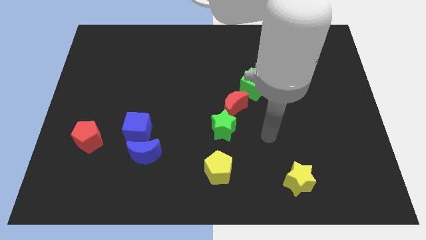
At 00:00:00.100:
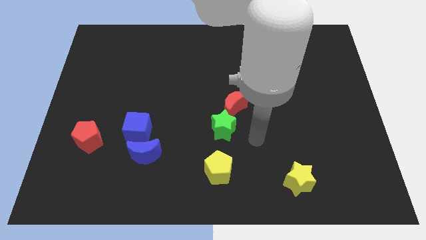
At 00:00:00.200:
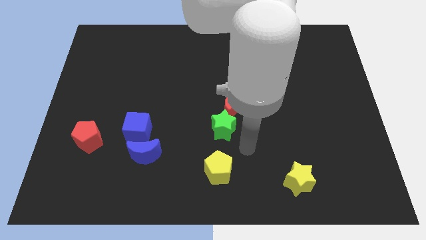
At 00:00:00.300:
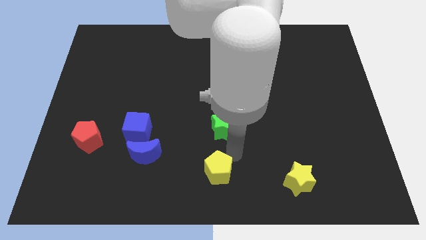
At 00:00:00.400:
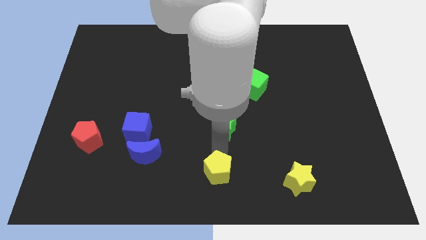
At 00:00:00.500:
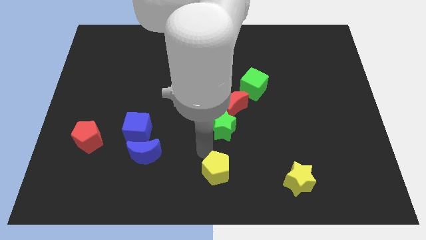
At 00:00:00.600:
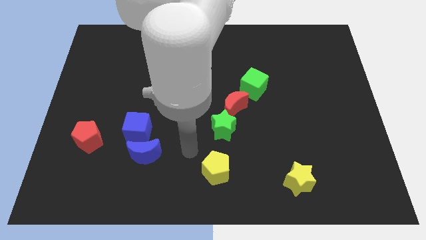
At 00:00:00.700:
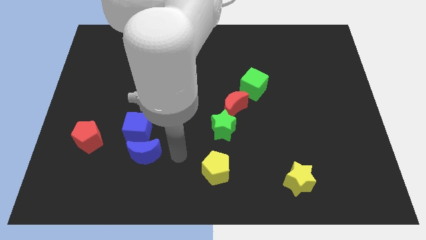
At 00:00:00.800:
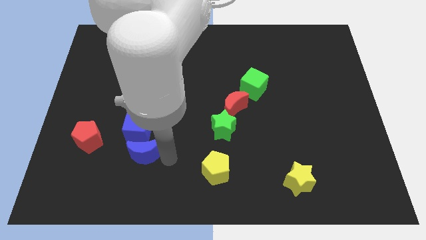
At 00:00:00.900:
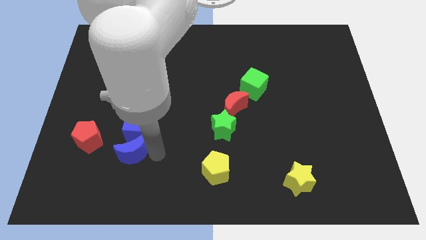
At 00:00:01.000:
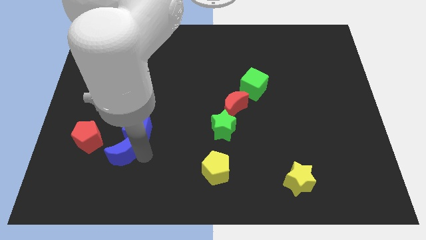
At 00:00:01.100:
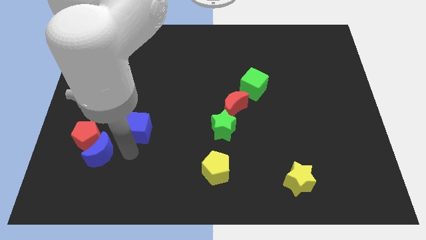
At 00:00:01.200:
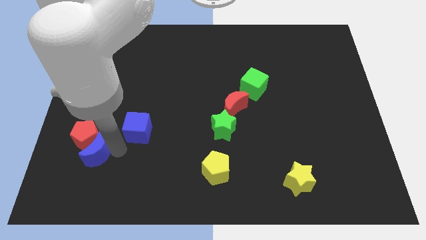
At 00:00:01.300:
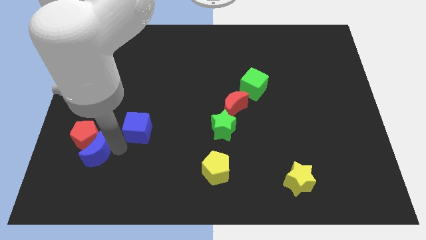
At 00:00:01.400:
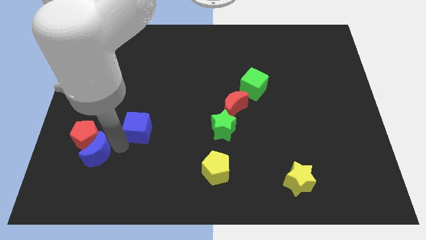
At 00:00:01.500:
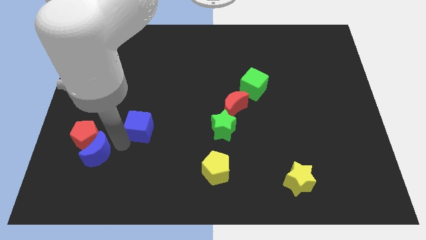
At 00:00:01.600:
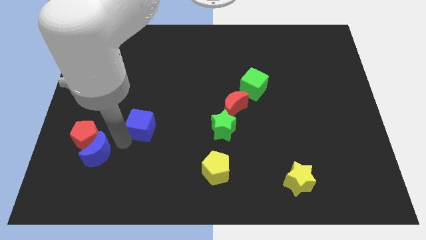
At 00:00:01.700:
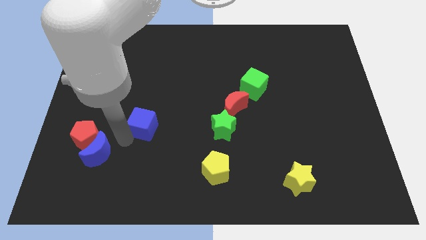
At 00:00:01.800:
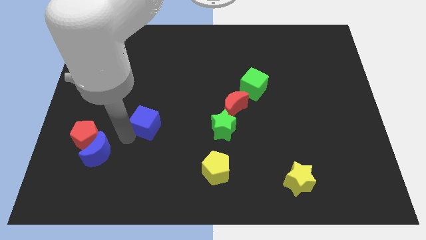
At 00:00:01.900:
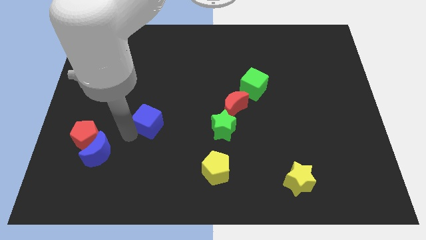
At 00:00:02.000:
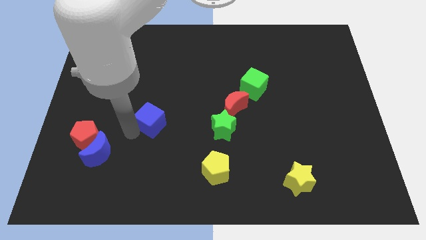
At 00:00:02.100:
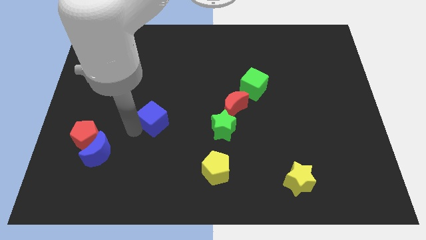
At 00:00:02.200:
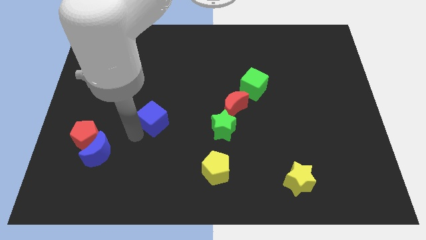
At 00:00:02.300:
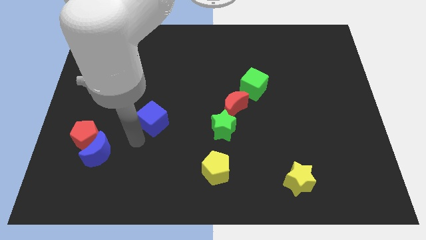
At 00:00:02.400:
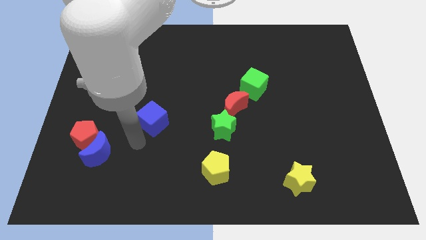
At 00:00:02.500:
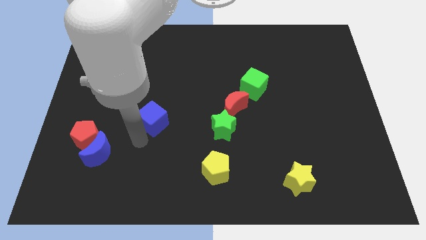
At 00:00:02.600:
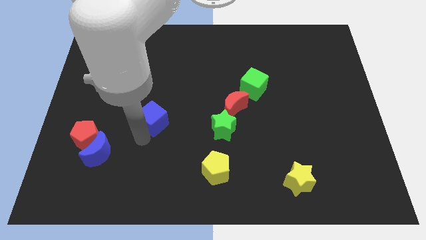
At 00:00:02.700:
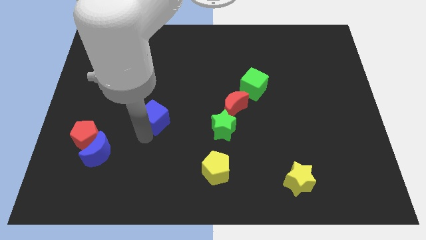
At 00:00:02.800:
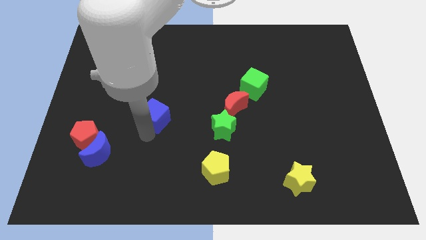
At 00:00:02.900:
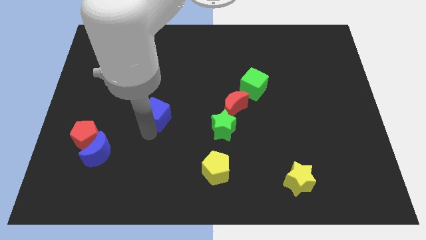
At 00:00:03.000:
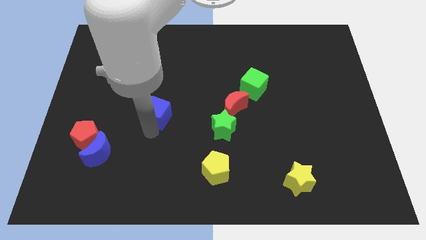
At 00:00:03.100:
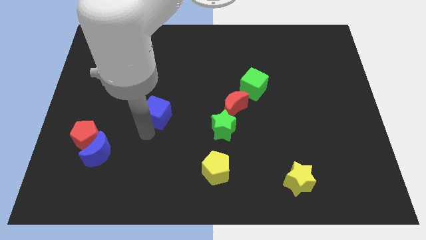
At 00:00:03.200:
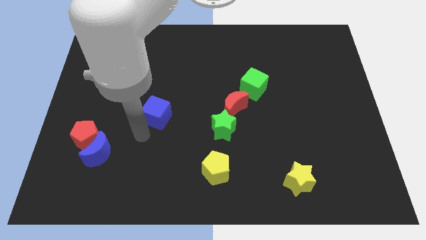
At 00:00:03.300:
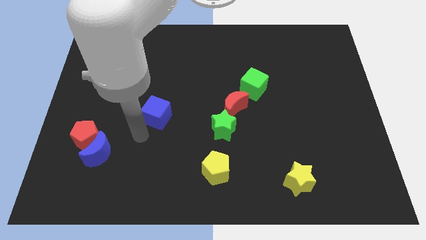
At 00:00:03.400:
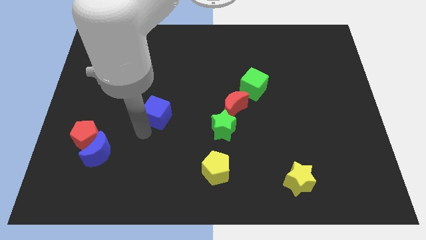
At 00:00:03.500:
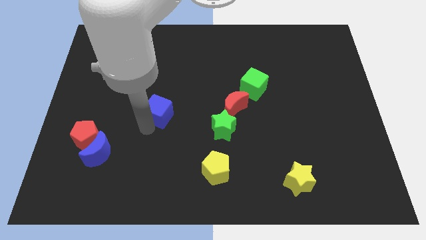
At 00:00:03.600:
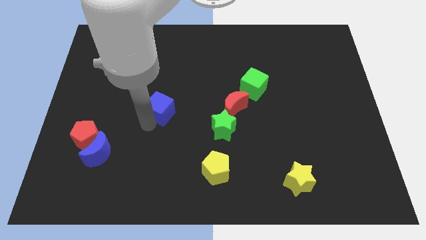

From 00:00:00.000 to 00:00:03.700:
slide the blue cube upwards and to the right diagonally slightly

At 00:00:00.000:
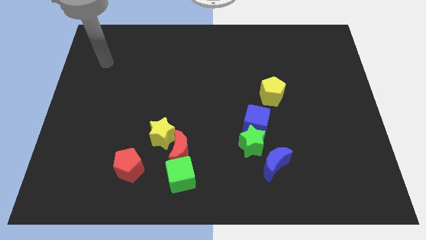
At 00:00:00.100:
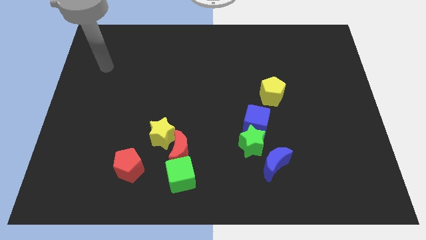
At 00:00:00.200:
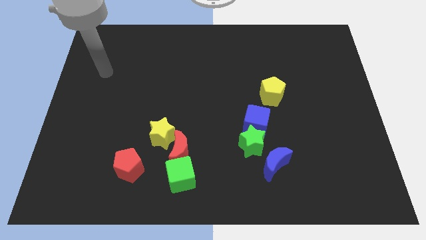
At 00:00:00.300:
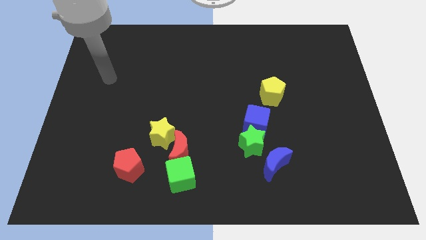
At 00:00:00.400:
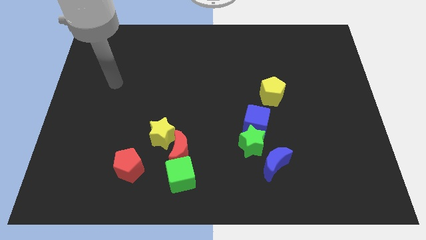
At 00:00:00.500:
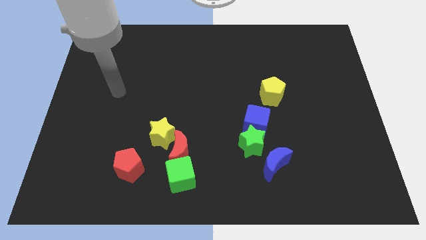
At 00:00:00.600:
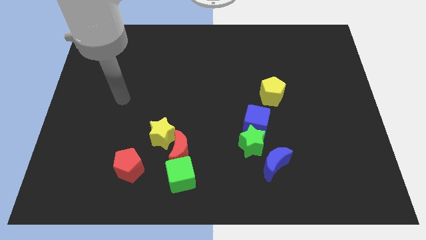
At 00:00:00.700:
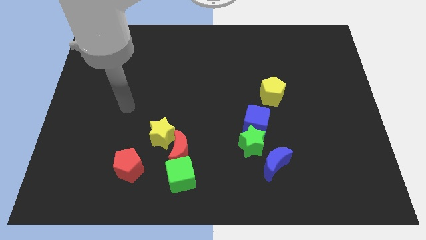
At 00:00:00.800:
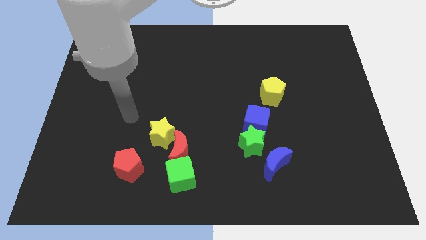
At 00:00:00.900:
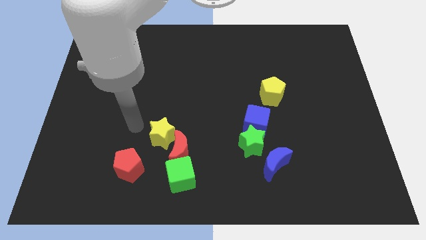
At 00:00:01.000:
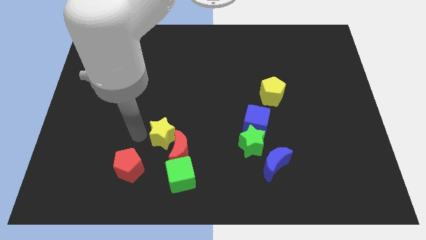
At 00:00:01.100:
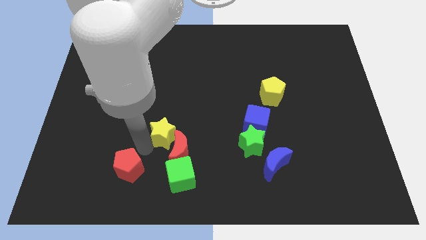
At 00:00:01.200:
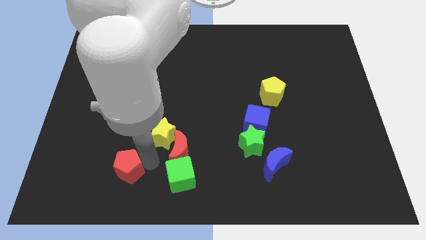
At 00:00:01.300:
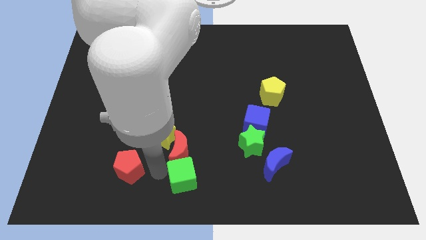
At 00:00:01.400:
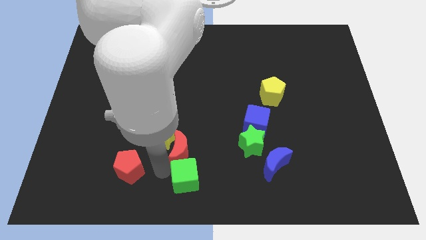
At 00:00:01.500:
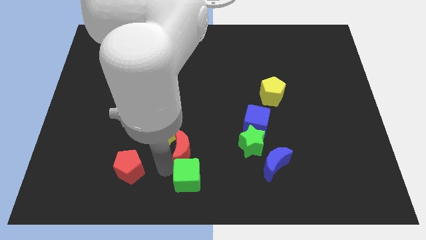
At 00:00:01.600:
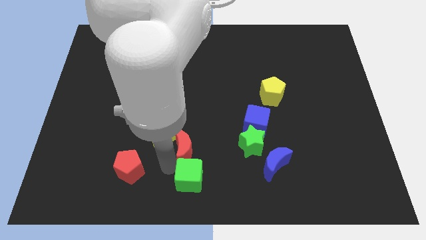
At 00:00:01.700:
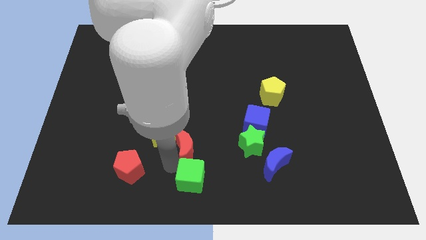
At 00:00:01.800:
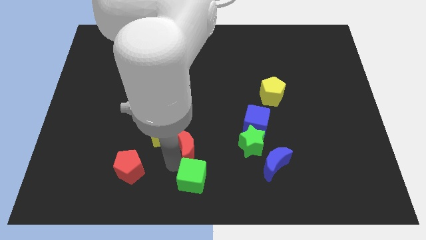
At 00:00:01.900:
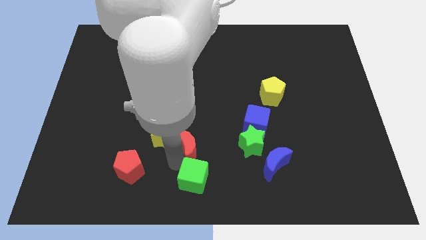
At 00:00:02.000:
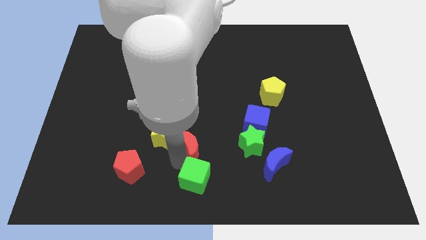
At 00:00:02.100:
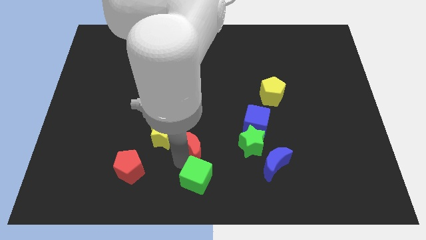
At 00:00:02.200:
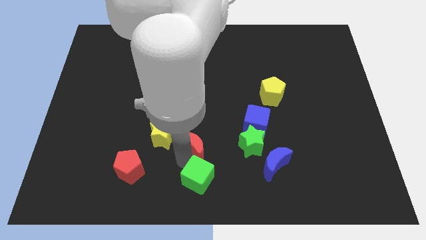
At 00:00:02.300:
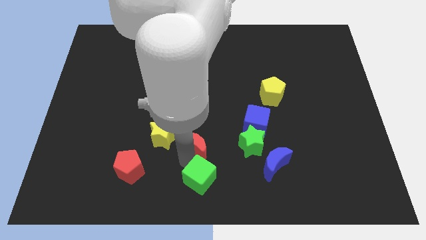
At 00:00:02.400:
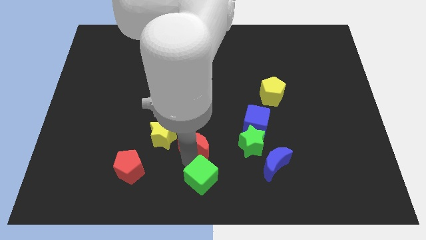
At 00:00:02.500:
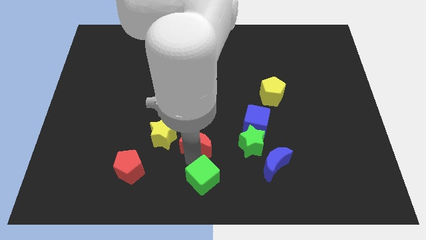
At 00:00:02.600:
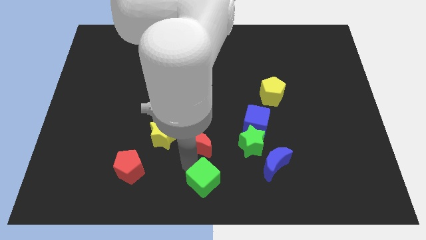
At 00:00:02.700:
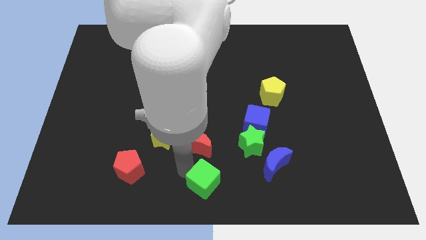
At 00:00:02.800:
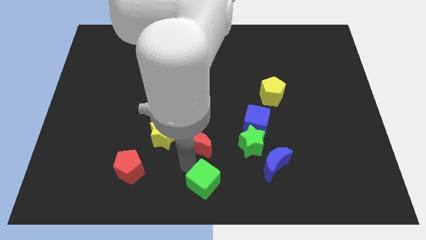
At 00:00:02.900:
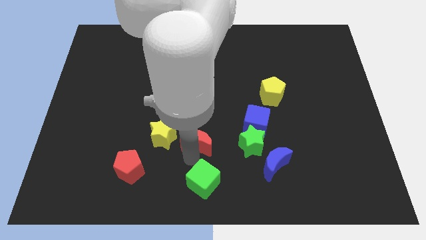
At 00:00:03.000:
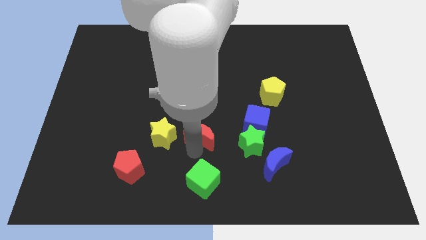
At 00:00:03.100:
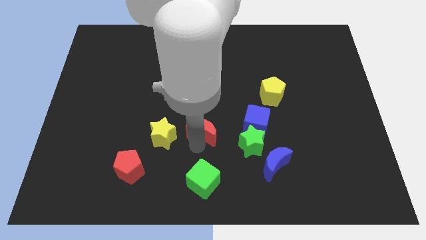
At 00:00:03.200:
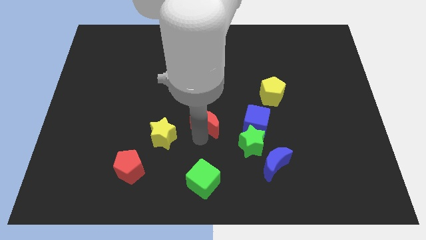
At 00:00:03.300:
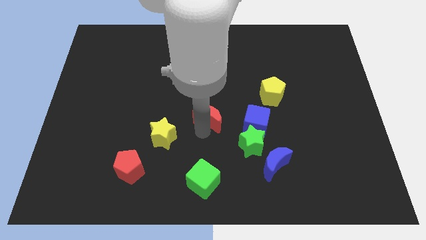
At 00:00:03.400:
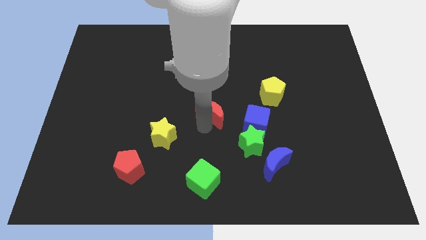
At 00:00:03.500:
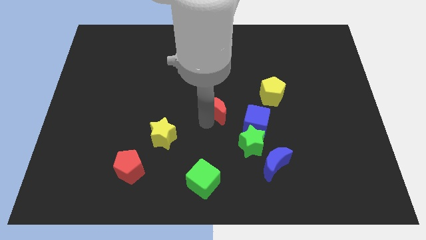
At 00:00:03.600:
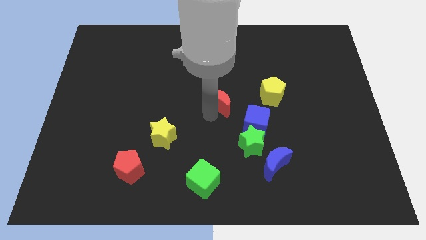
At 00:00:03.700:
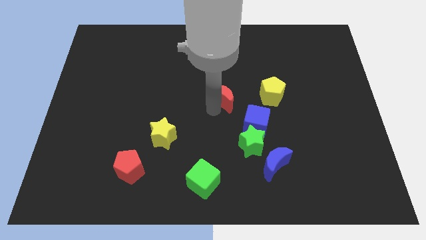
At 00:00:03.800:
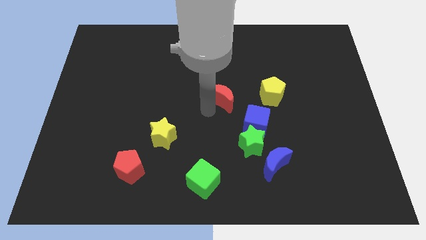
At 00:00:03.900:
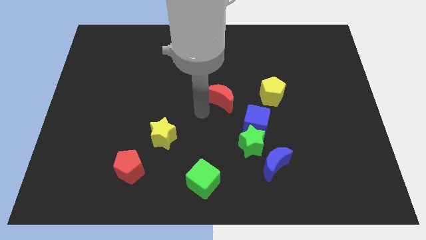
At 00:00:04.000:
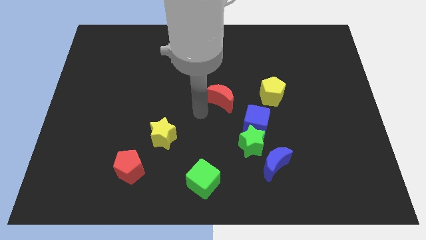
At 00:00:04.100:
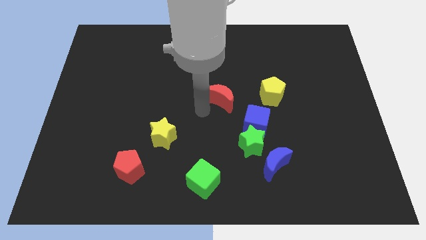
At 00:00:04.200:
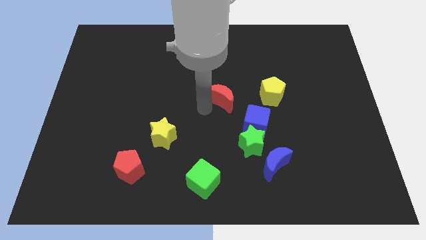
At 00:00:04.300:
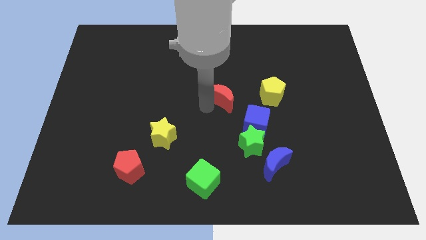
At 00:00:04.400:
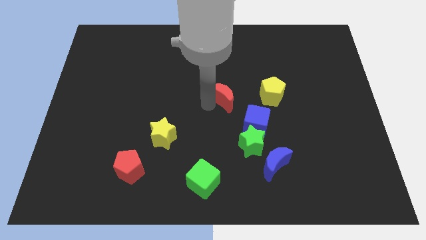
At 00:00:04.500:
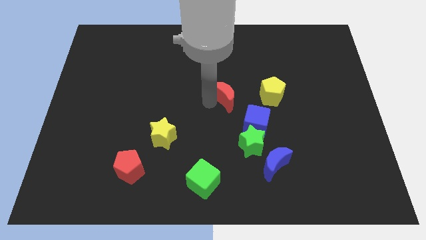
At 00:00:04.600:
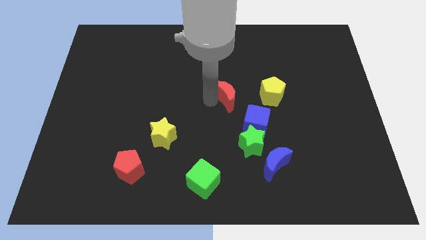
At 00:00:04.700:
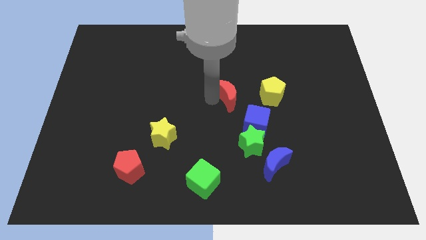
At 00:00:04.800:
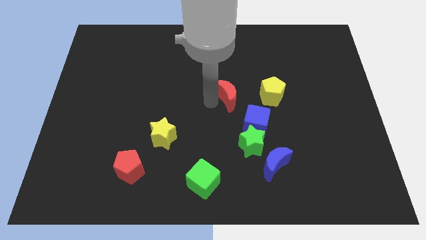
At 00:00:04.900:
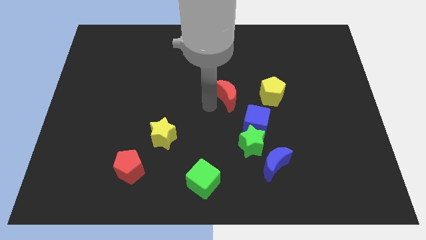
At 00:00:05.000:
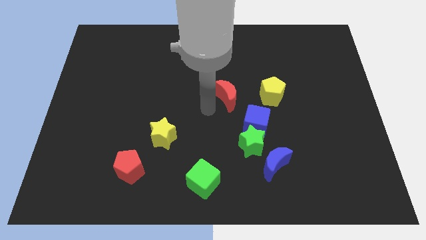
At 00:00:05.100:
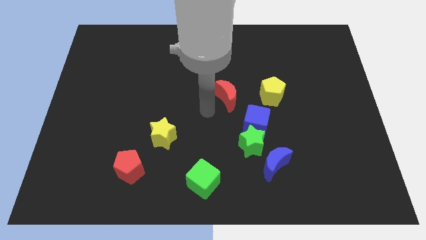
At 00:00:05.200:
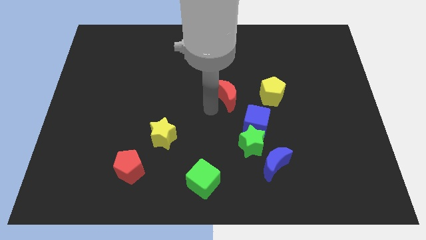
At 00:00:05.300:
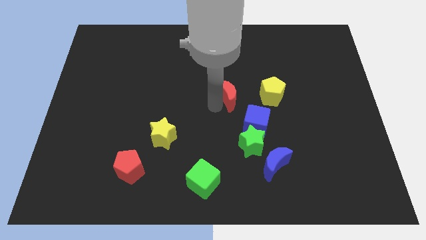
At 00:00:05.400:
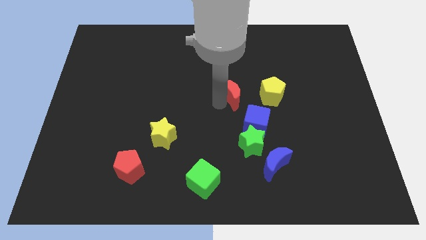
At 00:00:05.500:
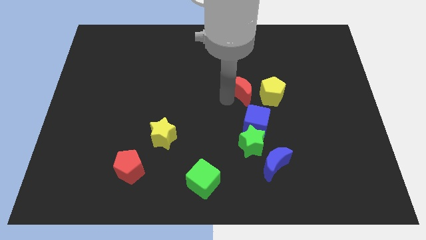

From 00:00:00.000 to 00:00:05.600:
move the red moon up and to the right
